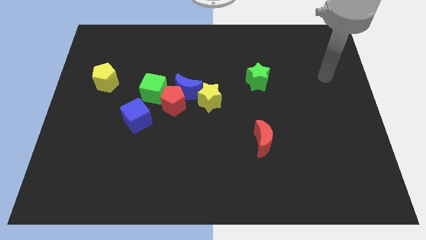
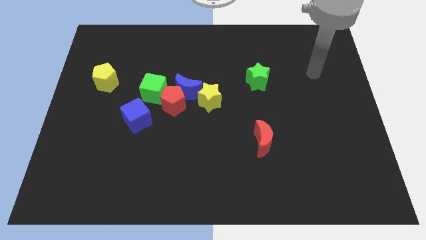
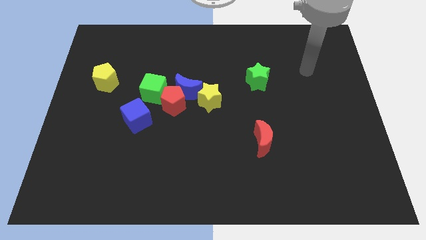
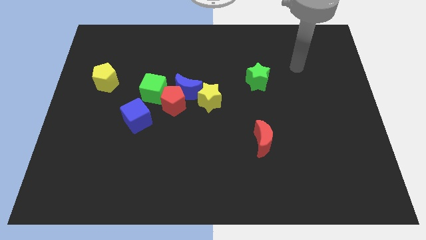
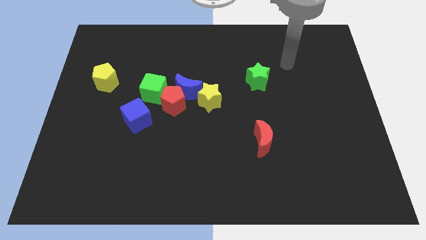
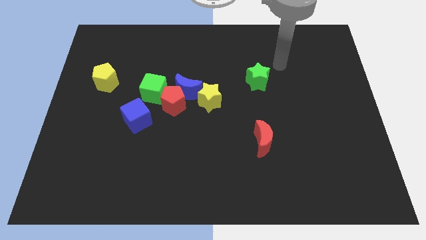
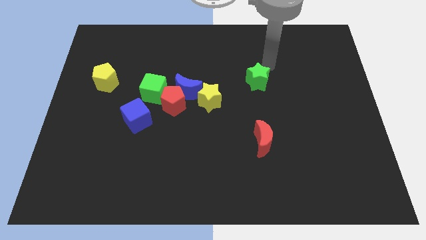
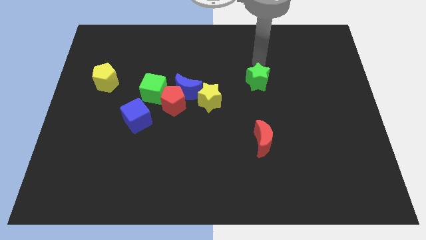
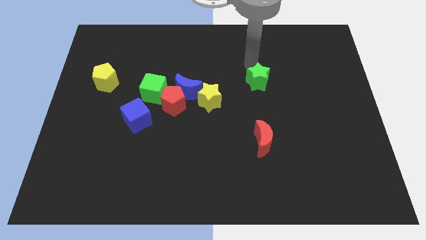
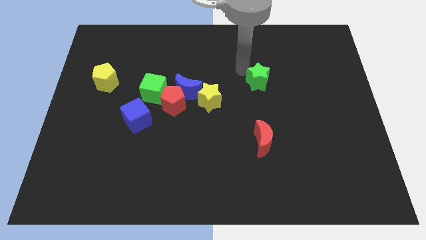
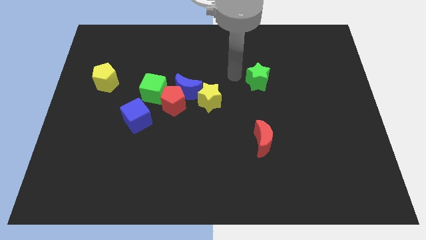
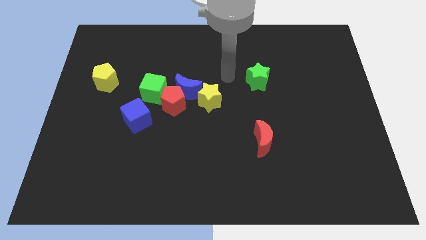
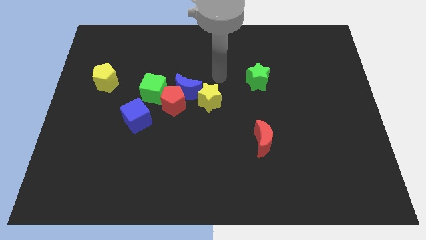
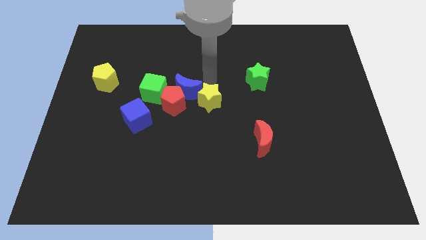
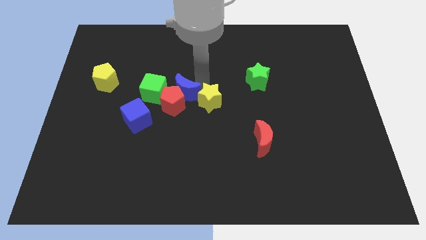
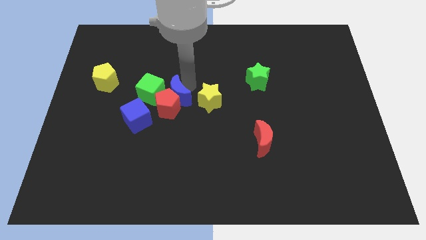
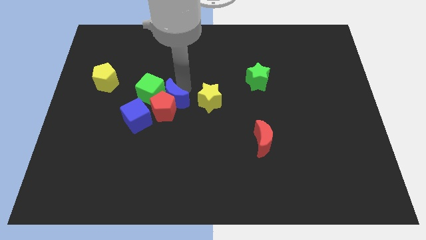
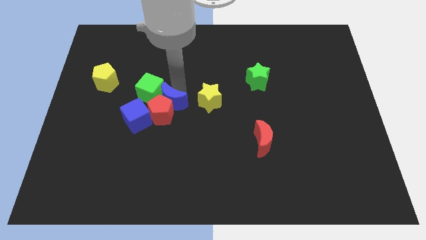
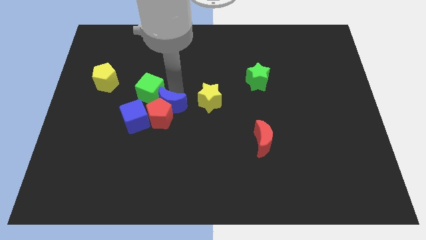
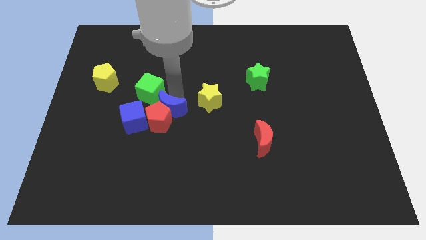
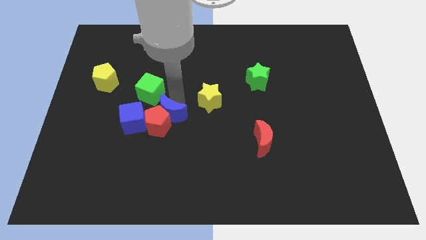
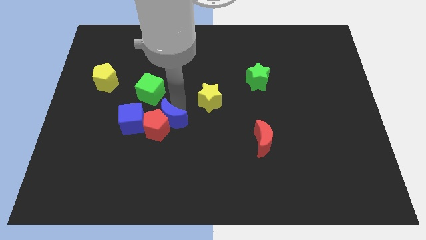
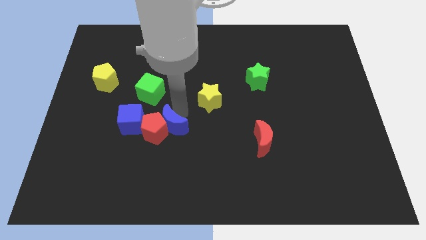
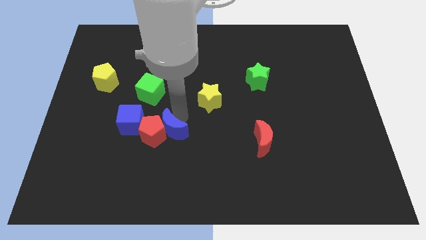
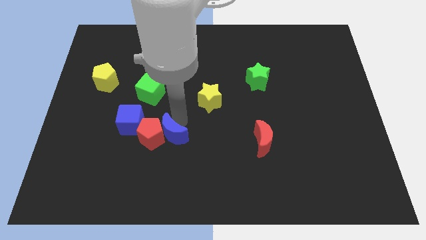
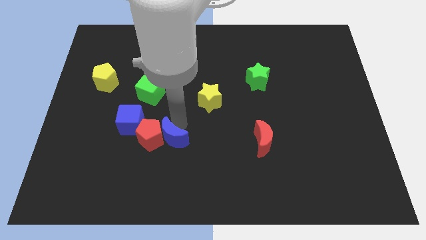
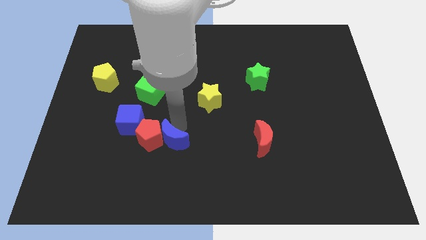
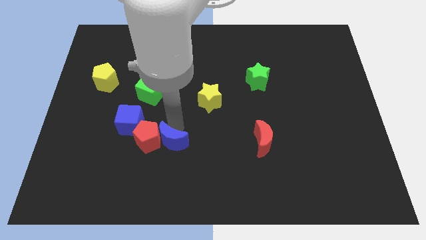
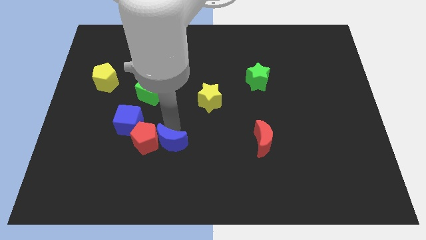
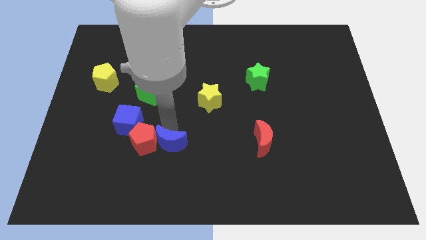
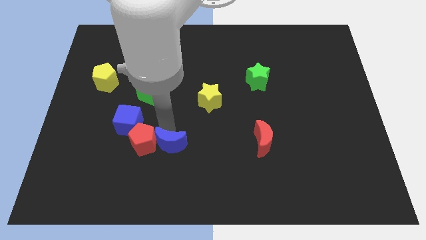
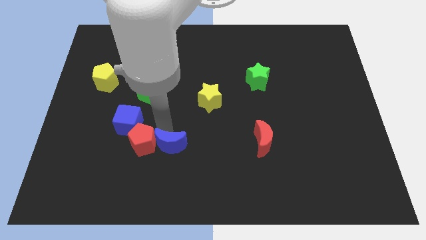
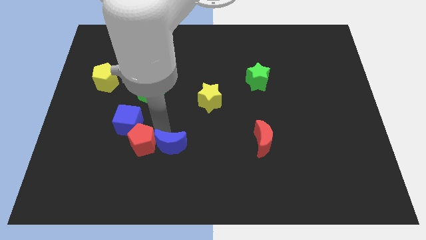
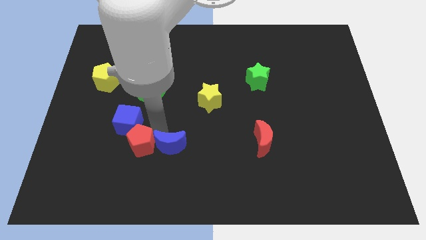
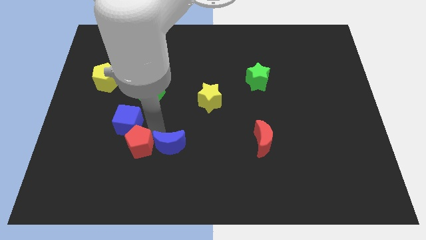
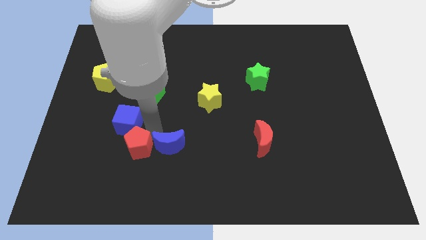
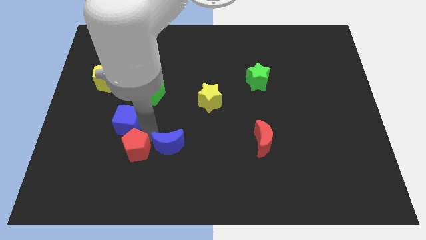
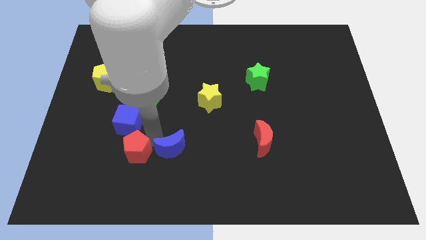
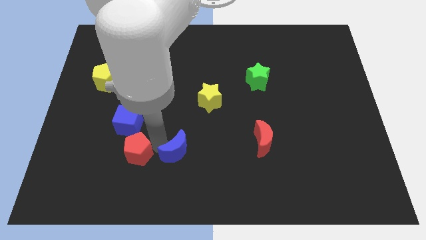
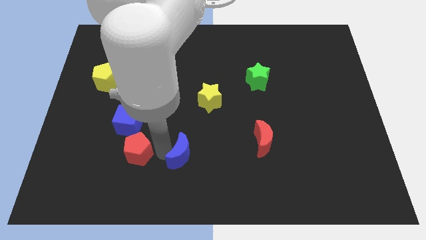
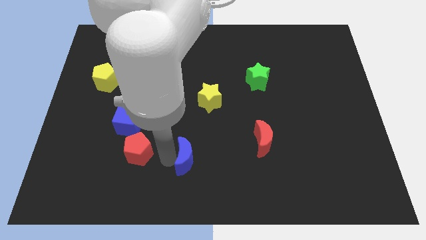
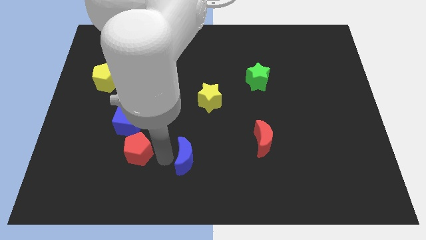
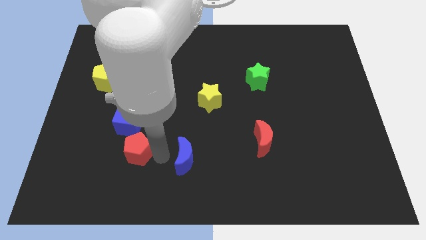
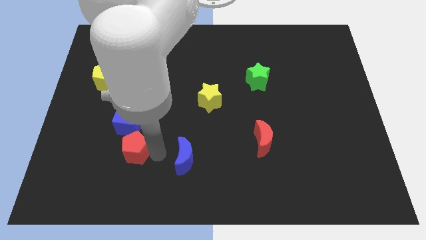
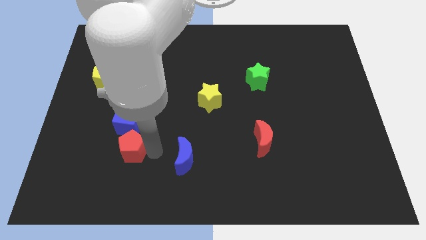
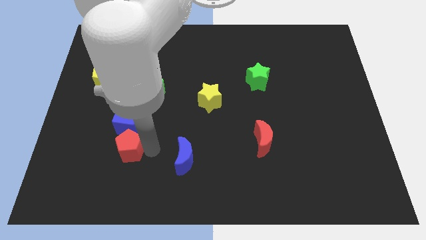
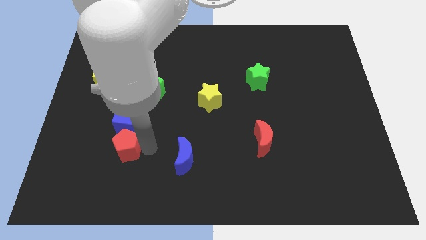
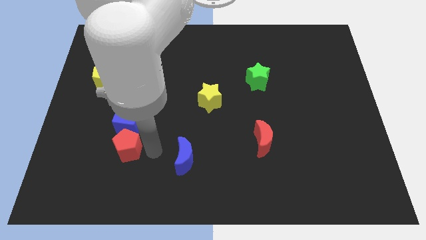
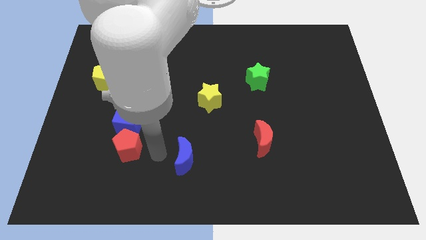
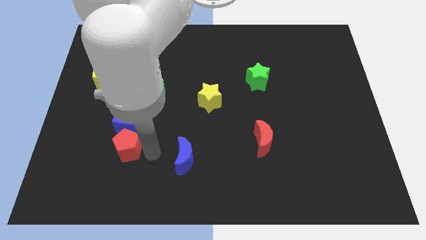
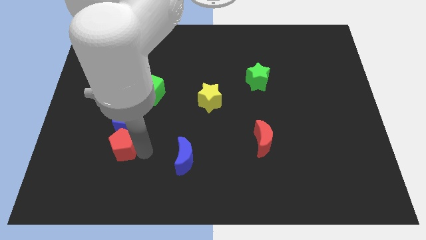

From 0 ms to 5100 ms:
push the red pentagon to the bottom left side of the blue cube

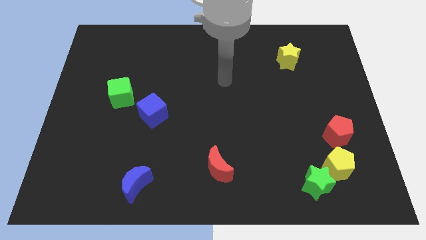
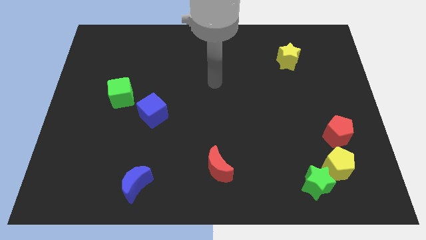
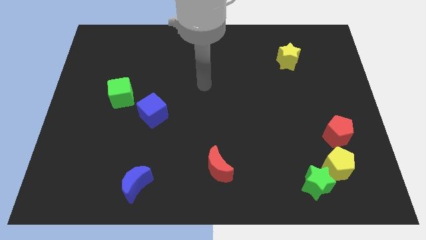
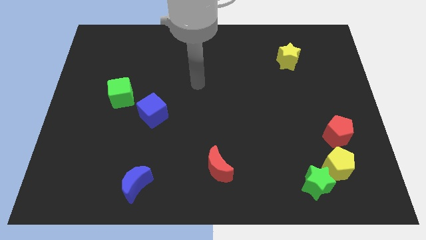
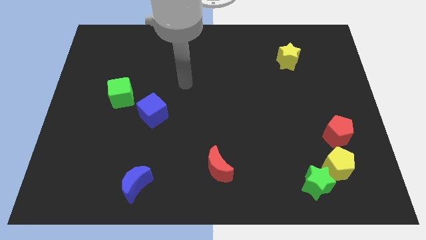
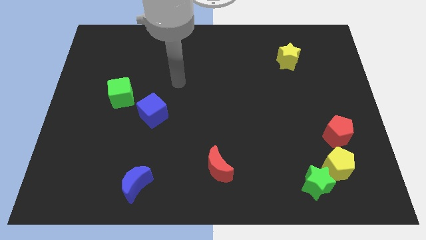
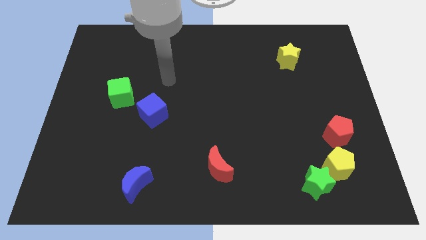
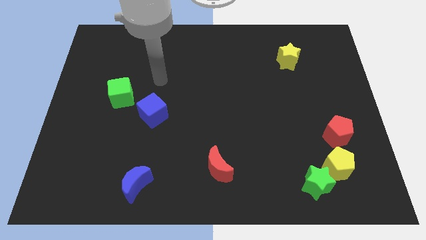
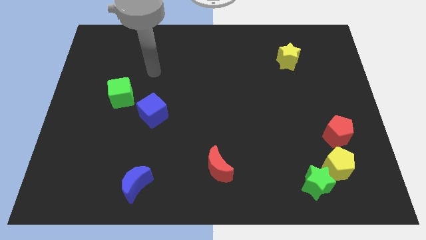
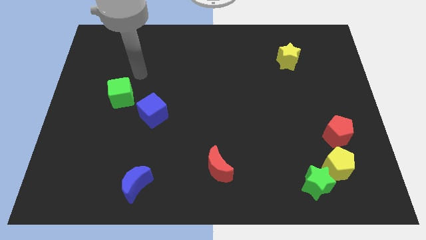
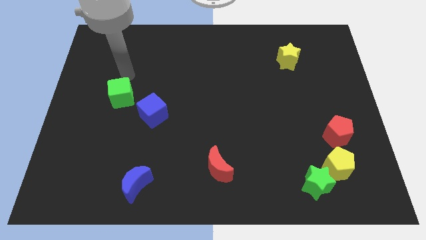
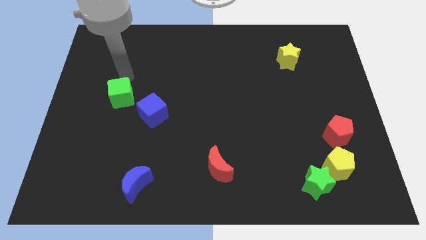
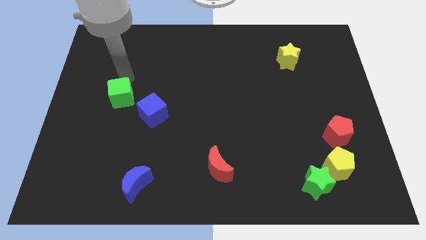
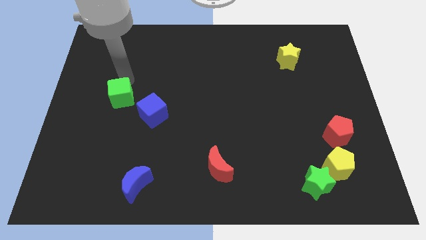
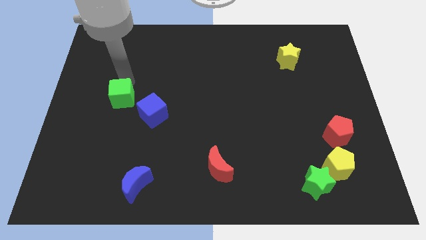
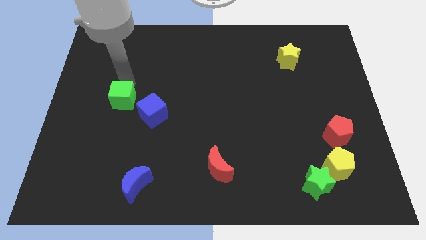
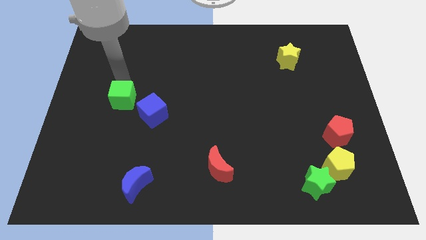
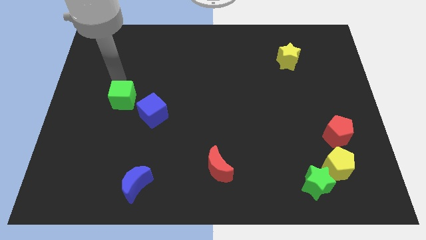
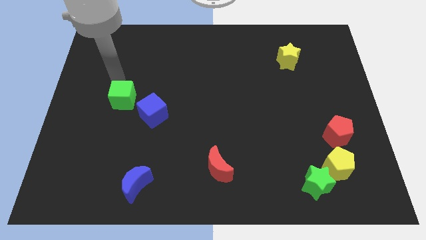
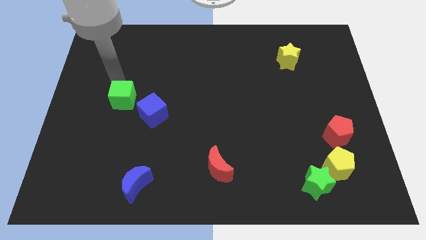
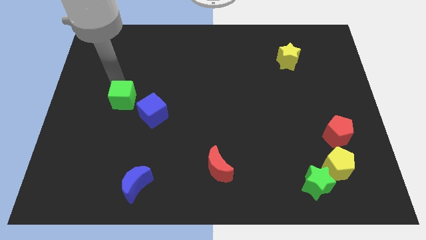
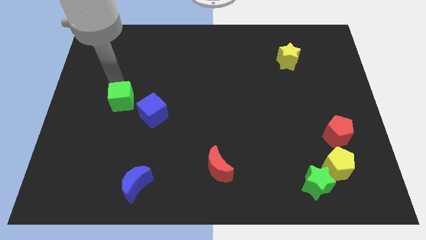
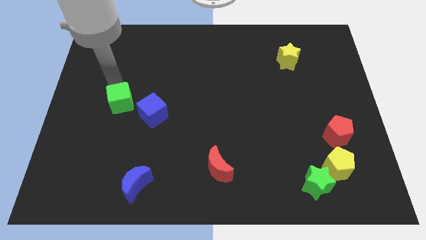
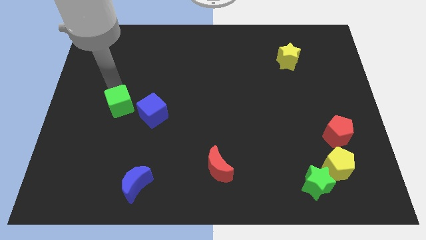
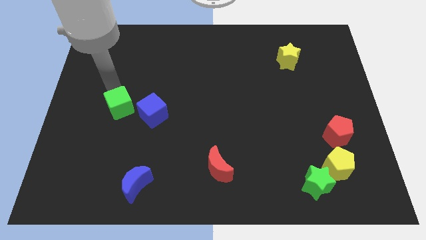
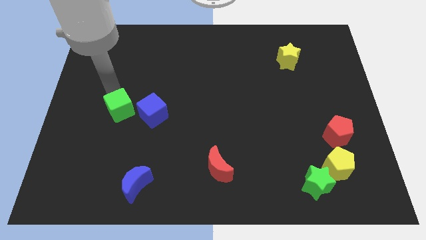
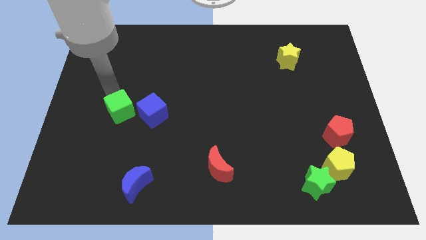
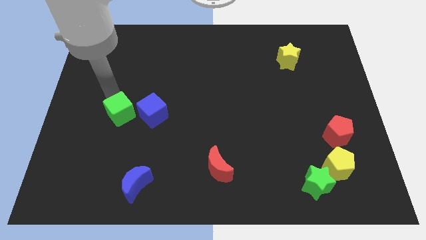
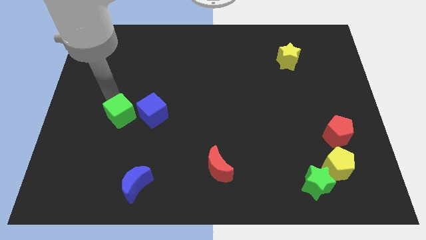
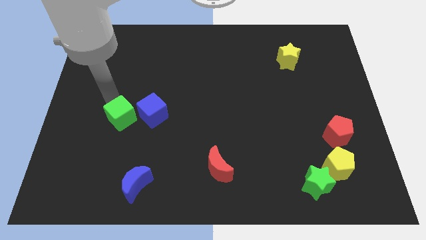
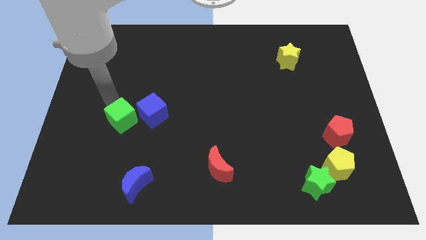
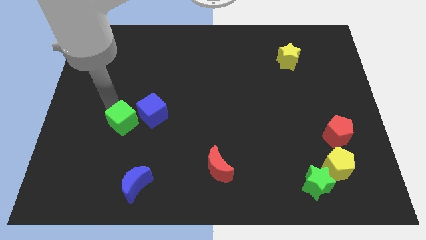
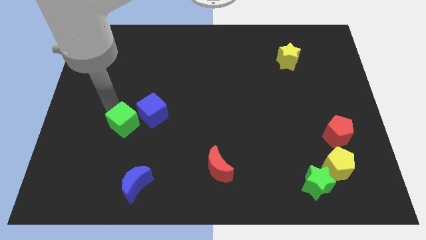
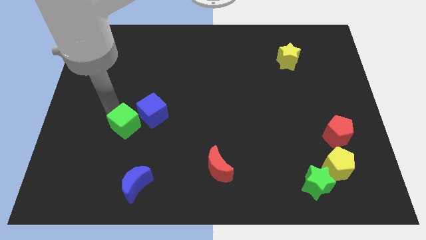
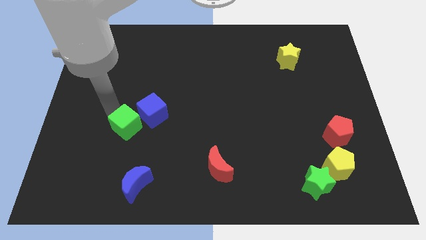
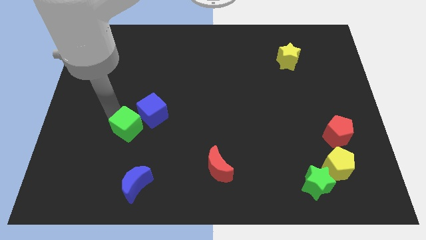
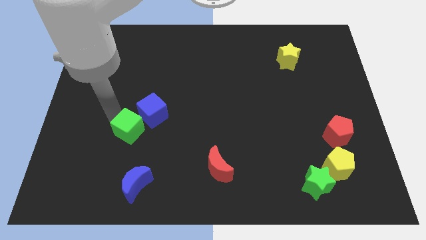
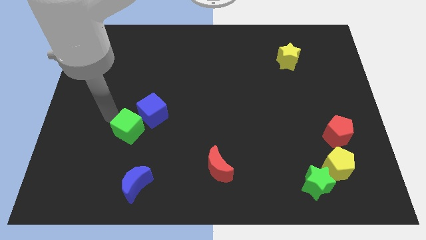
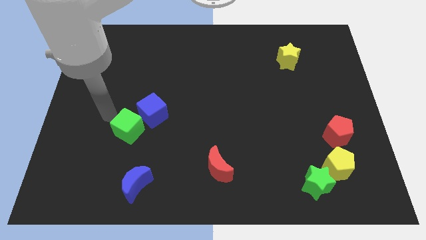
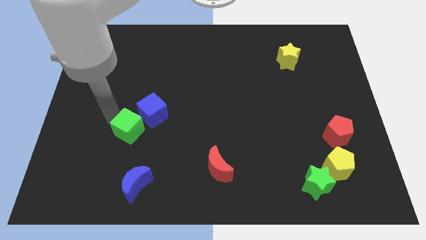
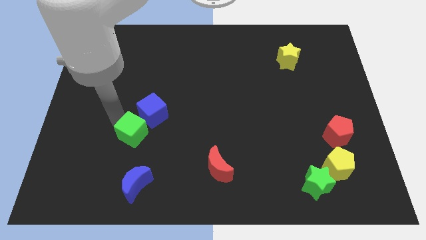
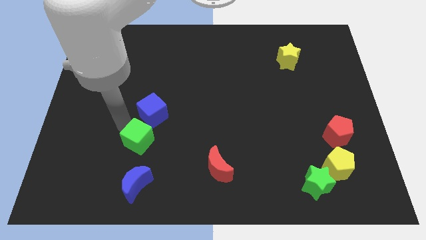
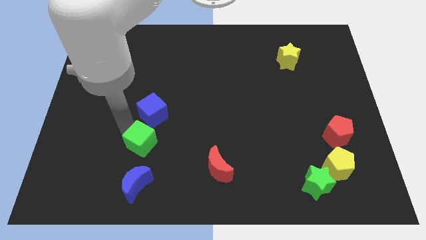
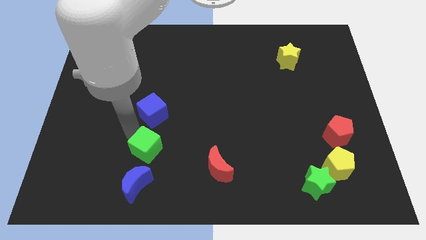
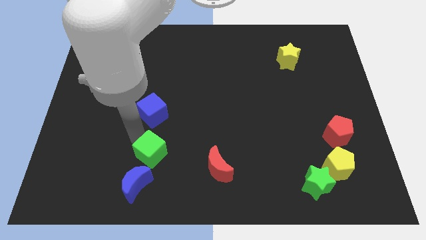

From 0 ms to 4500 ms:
slide the green cube to the top right side of the blue moon
